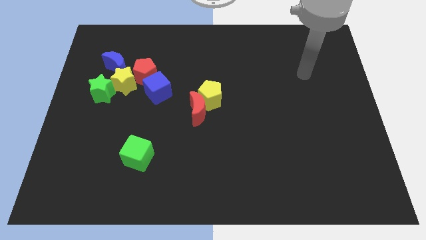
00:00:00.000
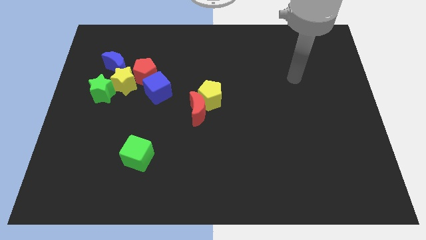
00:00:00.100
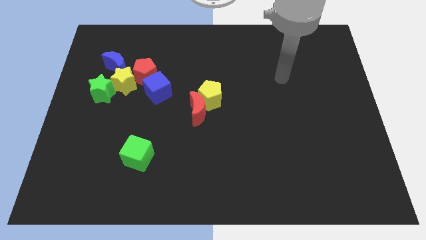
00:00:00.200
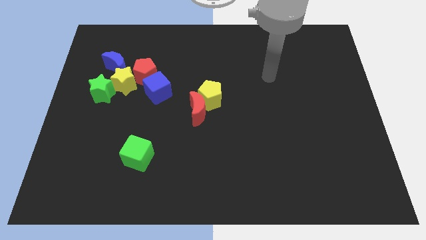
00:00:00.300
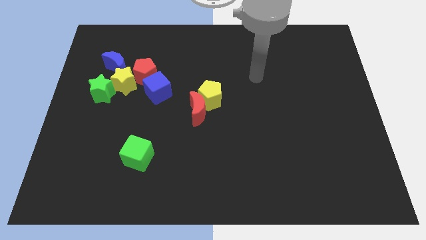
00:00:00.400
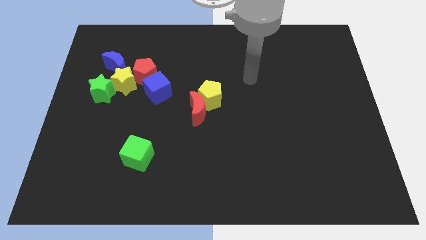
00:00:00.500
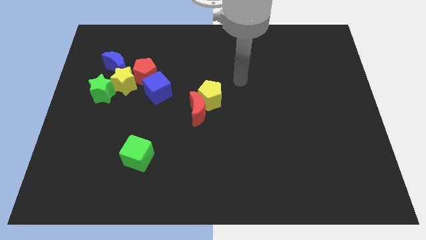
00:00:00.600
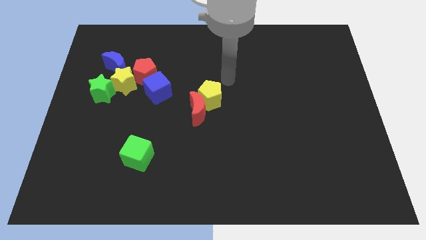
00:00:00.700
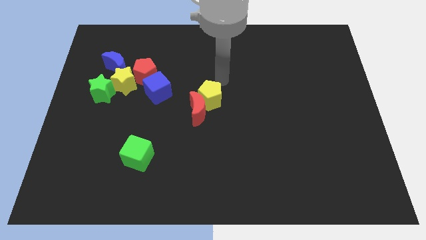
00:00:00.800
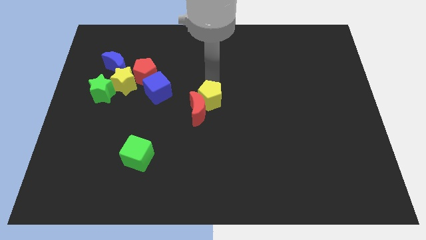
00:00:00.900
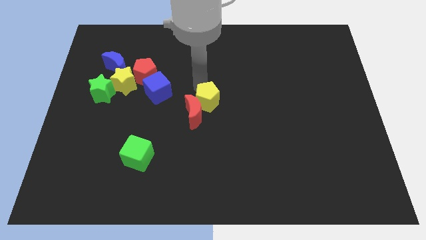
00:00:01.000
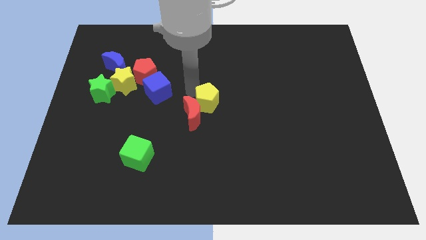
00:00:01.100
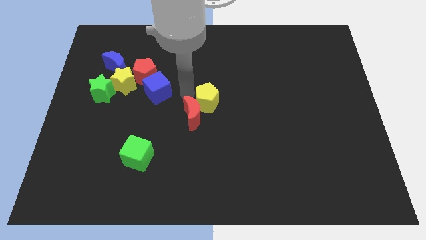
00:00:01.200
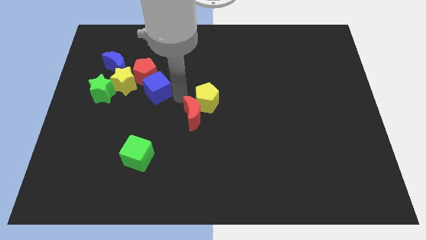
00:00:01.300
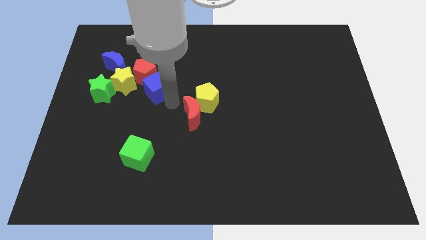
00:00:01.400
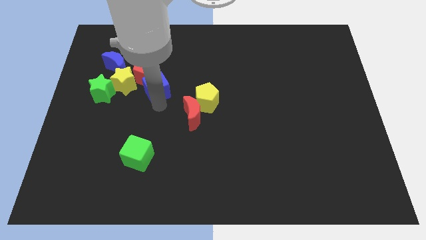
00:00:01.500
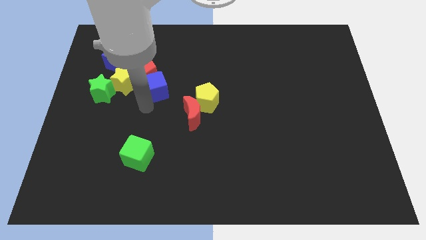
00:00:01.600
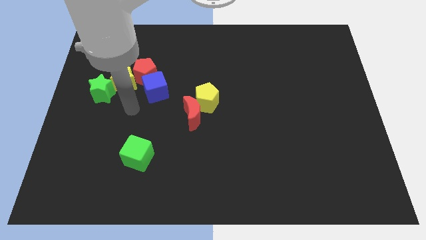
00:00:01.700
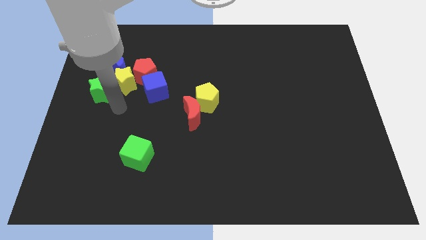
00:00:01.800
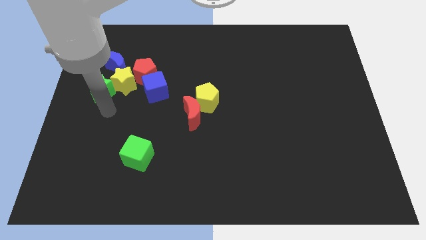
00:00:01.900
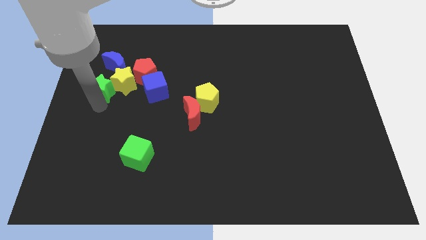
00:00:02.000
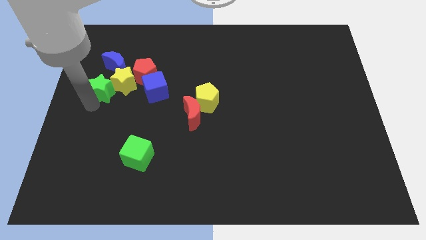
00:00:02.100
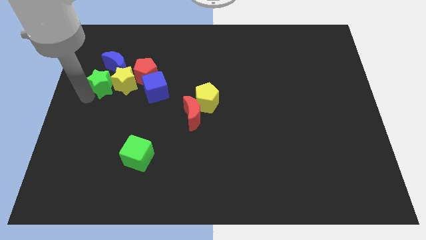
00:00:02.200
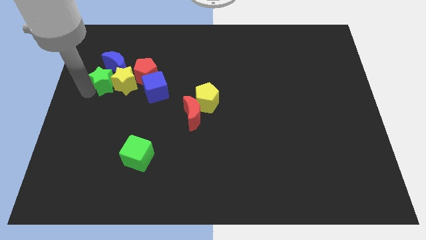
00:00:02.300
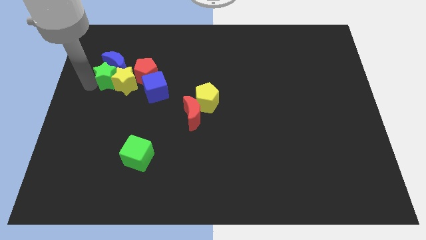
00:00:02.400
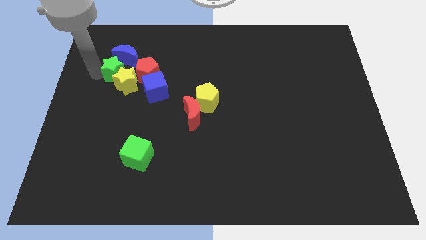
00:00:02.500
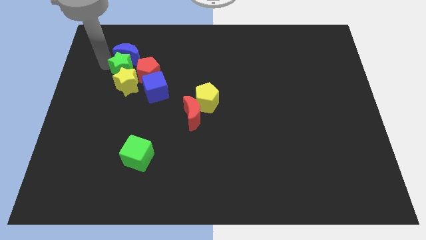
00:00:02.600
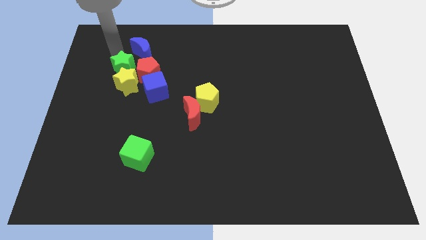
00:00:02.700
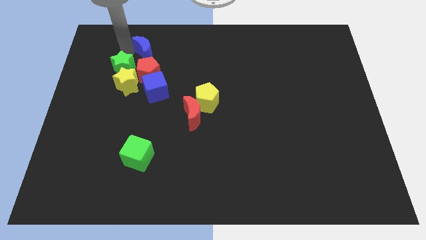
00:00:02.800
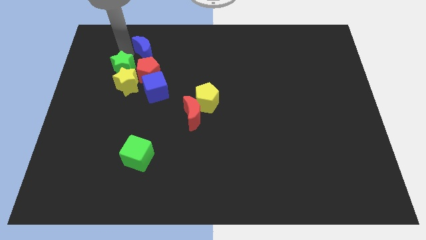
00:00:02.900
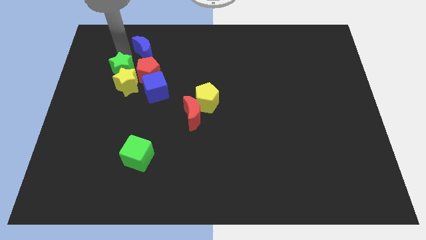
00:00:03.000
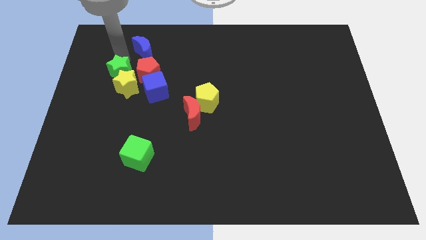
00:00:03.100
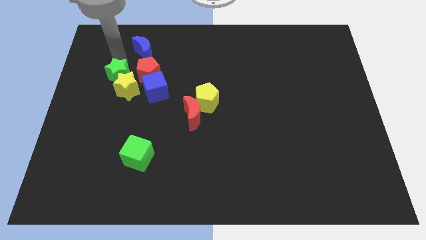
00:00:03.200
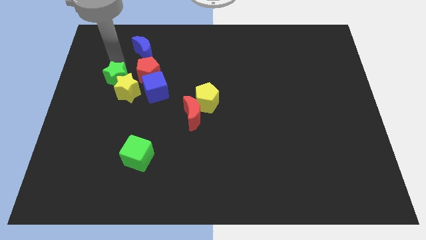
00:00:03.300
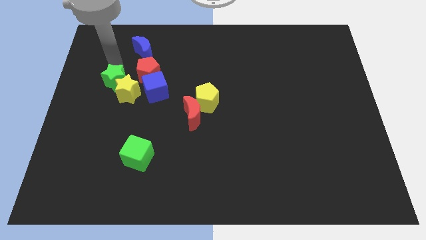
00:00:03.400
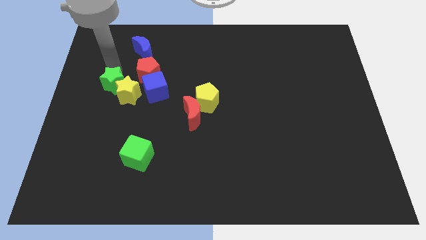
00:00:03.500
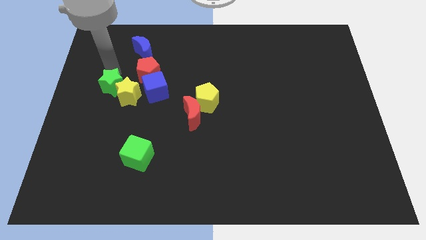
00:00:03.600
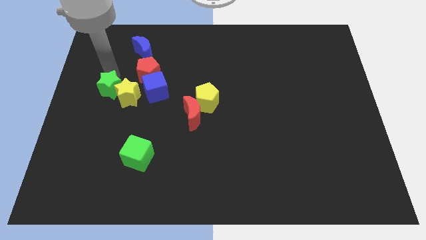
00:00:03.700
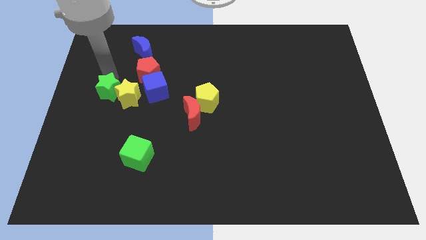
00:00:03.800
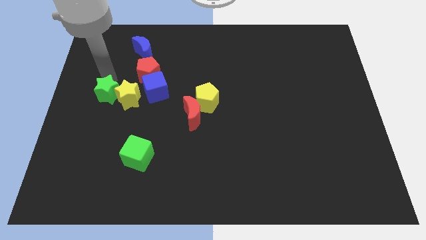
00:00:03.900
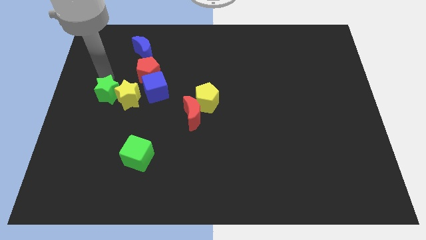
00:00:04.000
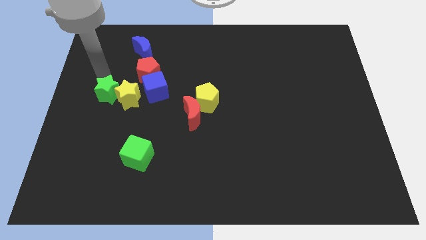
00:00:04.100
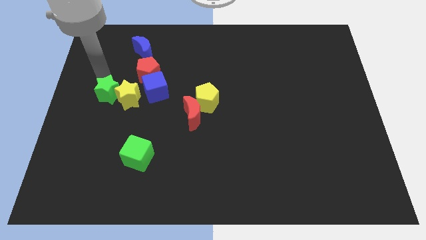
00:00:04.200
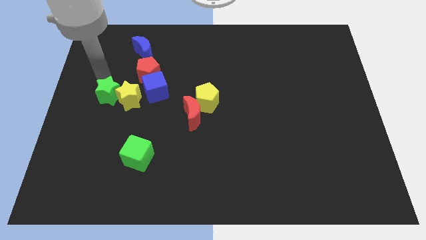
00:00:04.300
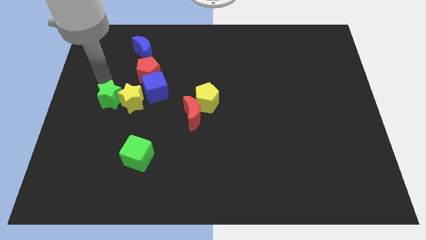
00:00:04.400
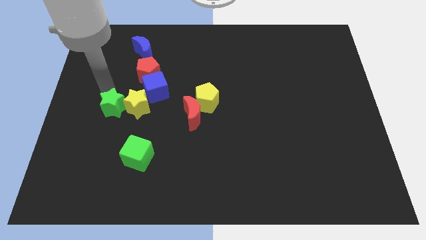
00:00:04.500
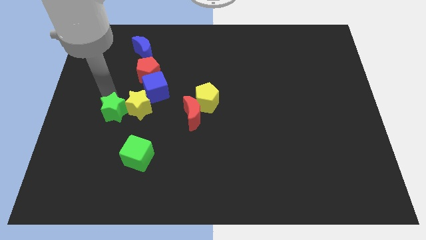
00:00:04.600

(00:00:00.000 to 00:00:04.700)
move the green star diagonally downwards and to the right slightly

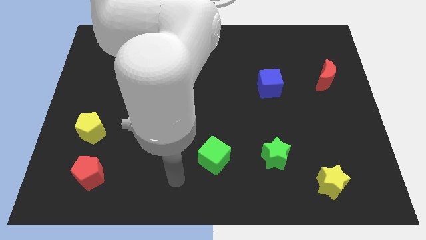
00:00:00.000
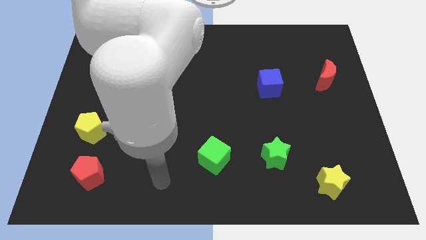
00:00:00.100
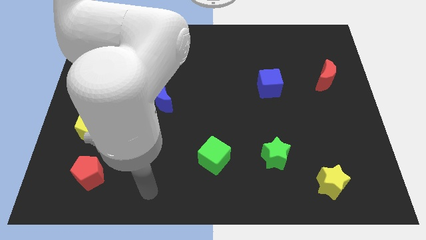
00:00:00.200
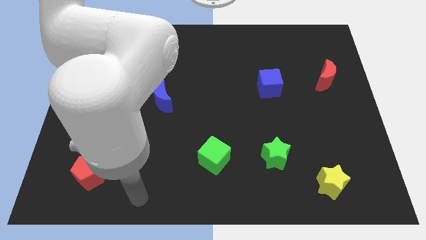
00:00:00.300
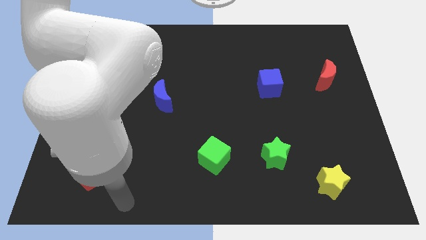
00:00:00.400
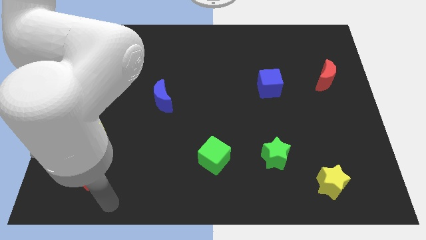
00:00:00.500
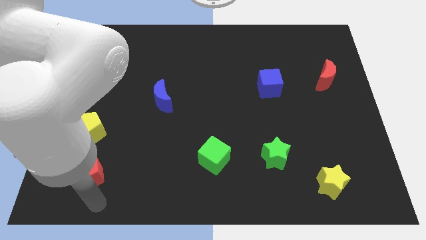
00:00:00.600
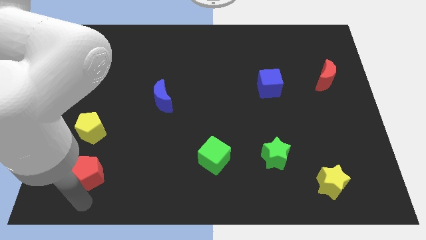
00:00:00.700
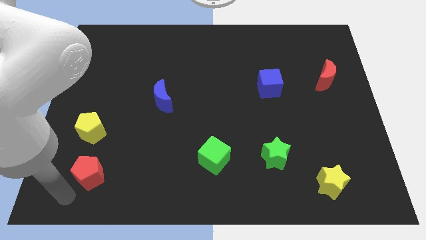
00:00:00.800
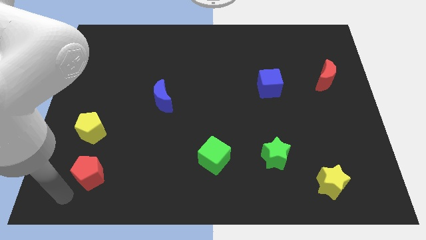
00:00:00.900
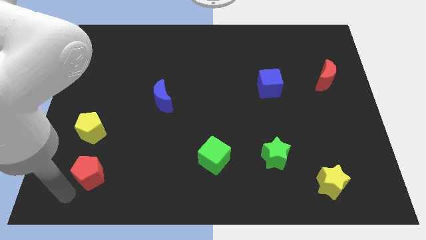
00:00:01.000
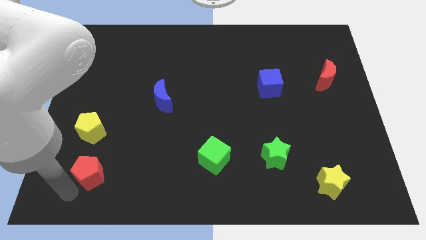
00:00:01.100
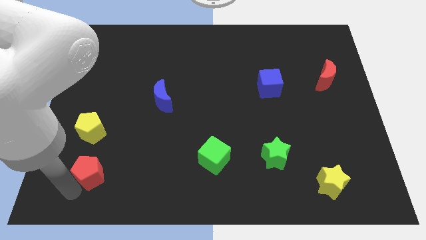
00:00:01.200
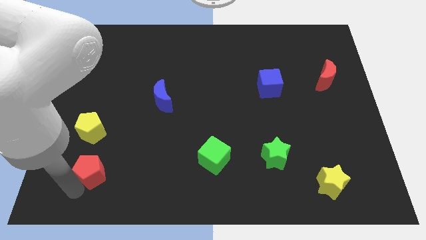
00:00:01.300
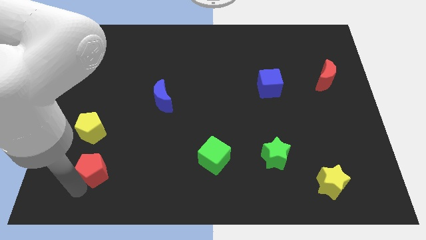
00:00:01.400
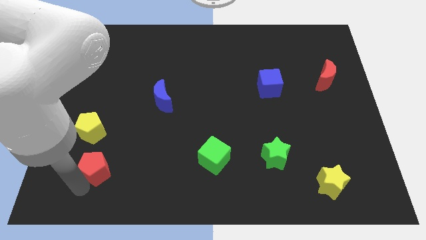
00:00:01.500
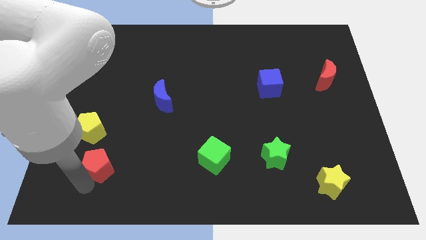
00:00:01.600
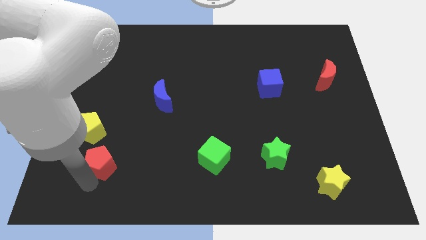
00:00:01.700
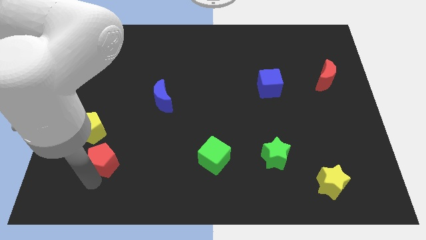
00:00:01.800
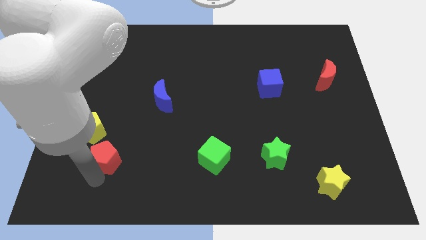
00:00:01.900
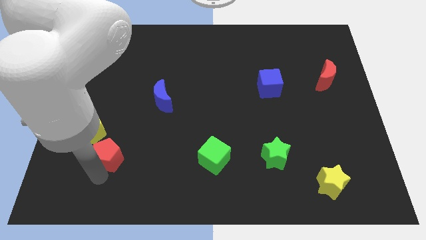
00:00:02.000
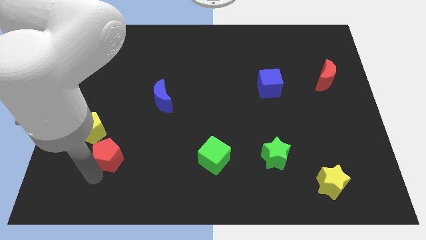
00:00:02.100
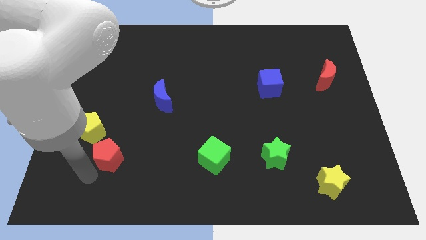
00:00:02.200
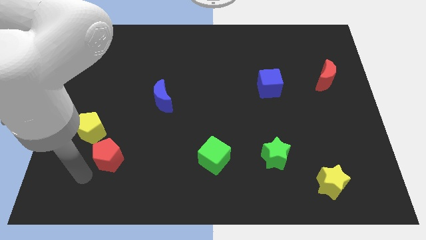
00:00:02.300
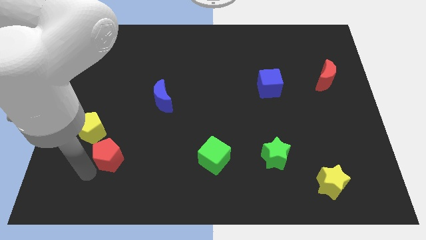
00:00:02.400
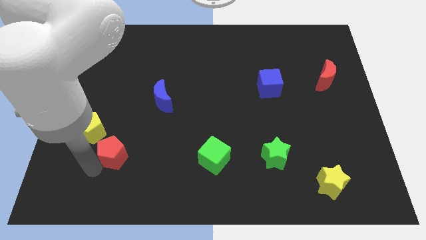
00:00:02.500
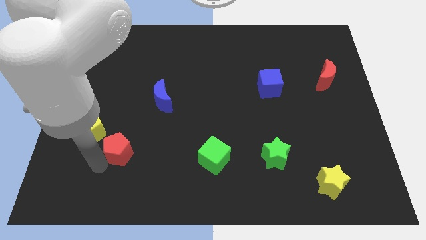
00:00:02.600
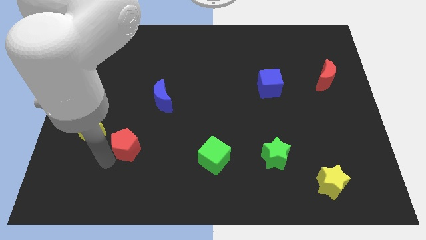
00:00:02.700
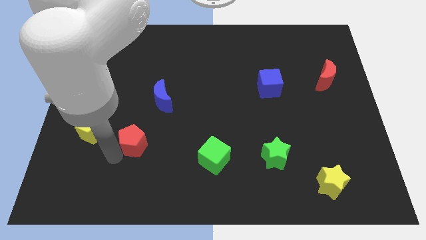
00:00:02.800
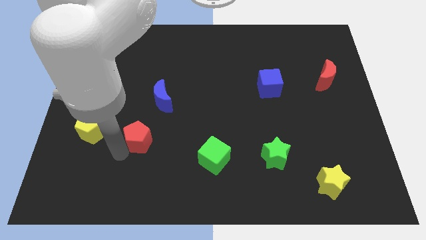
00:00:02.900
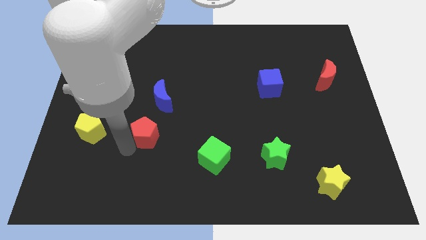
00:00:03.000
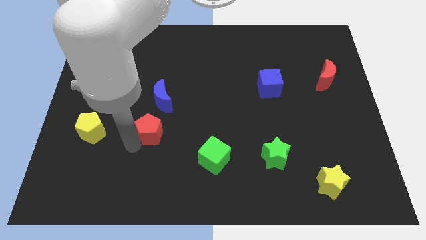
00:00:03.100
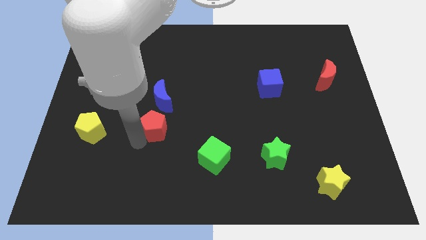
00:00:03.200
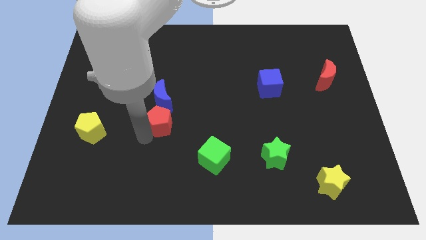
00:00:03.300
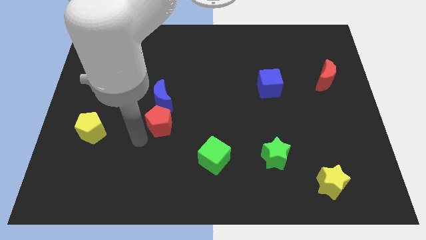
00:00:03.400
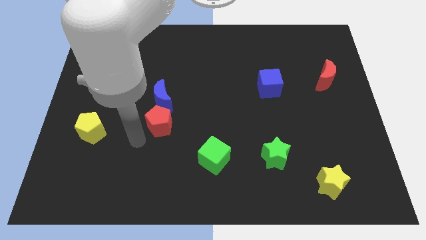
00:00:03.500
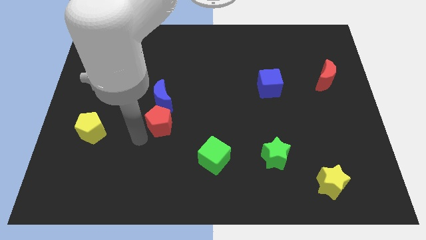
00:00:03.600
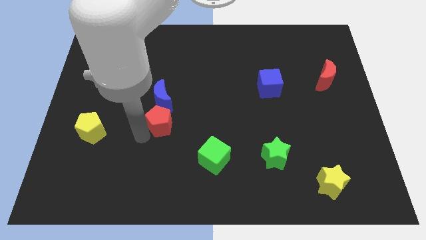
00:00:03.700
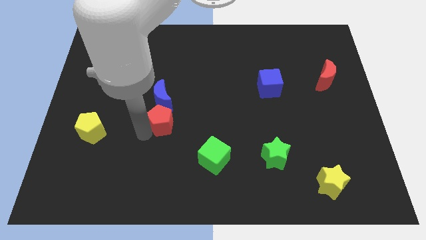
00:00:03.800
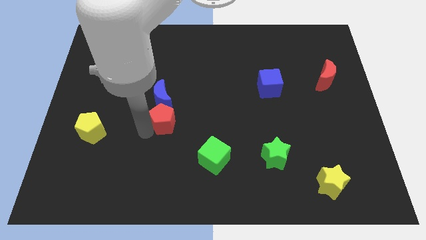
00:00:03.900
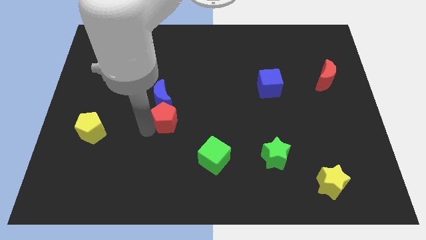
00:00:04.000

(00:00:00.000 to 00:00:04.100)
slide the red pentagon upwards and then right
